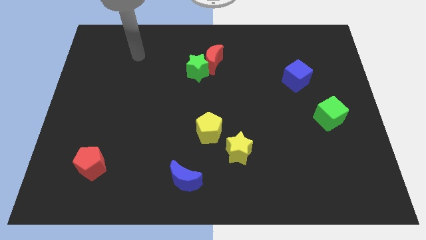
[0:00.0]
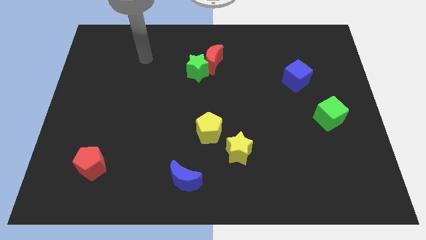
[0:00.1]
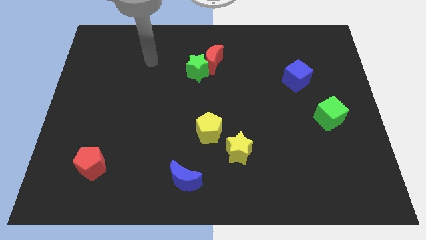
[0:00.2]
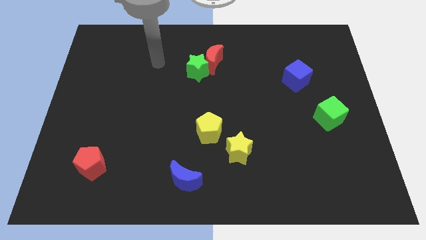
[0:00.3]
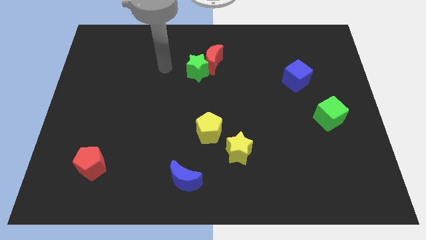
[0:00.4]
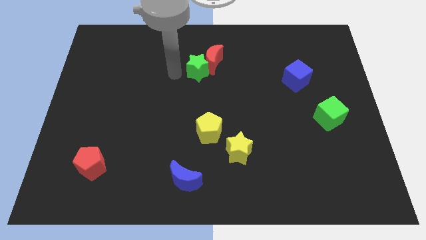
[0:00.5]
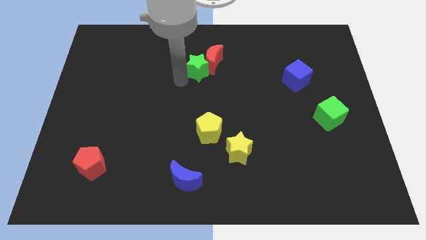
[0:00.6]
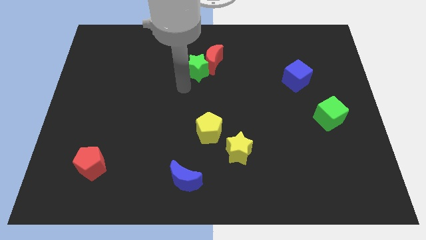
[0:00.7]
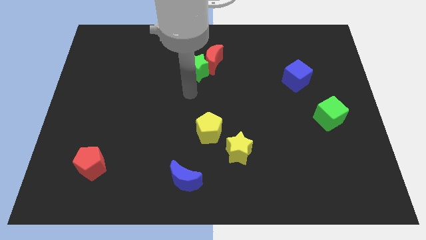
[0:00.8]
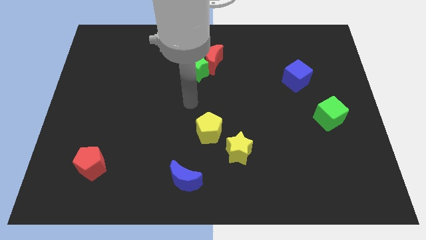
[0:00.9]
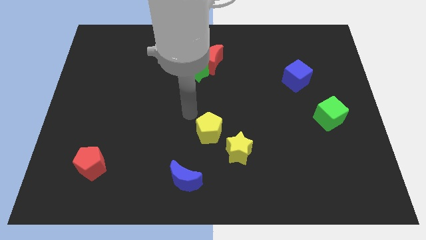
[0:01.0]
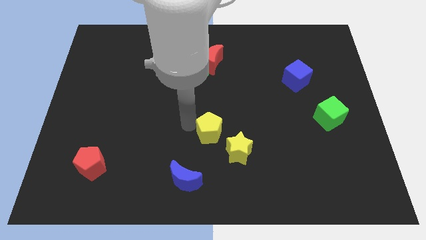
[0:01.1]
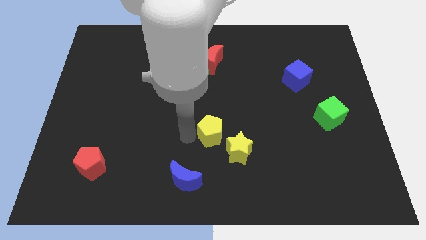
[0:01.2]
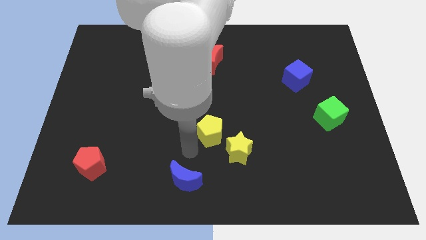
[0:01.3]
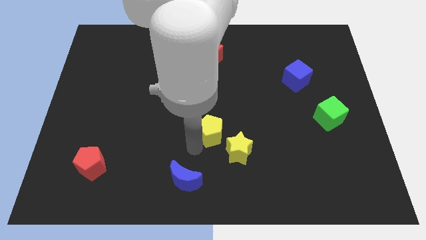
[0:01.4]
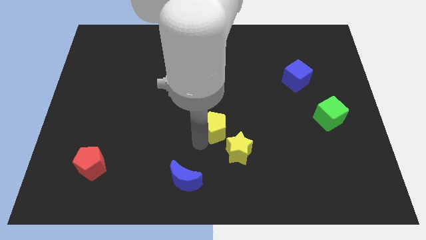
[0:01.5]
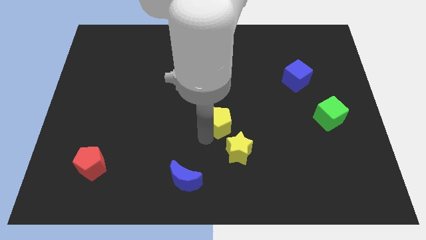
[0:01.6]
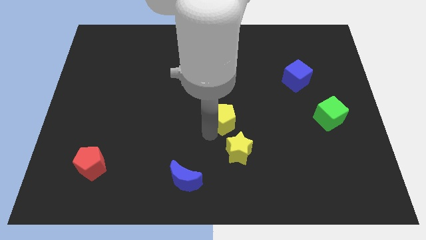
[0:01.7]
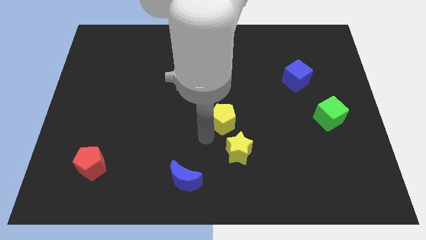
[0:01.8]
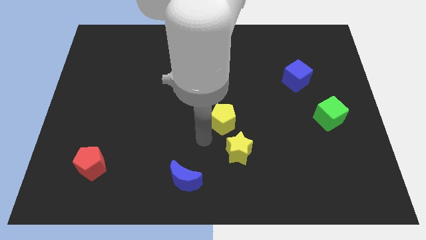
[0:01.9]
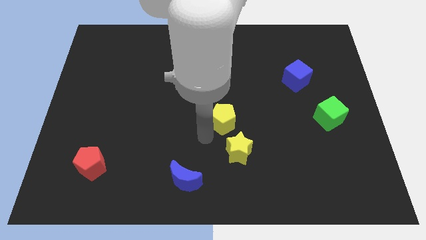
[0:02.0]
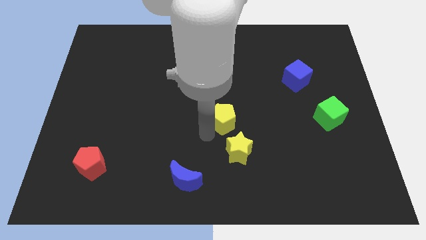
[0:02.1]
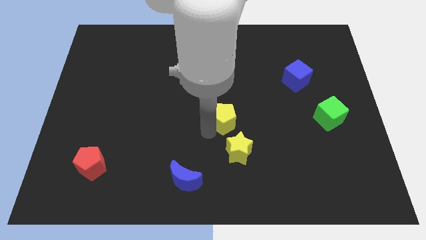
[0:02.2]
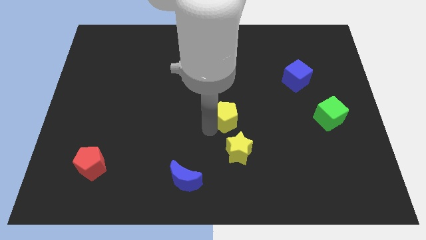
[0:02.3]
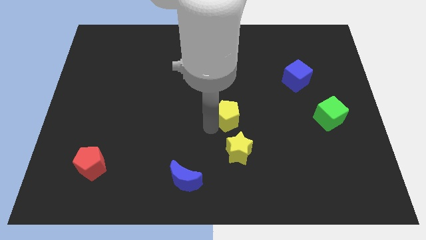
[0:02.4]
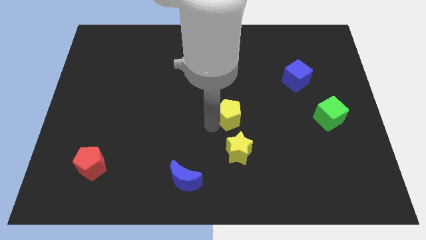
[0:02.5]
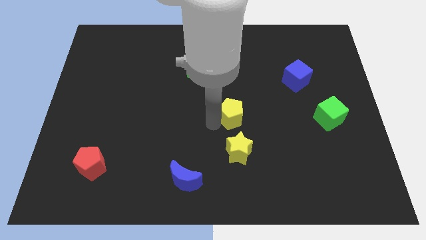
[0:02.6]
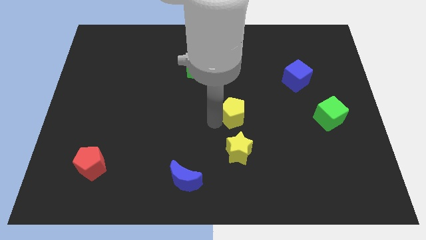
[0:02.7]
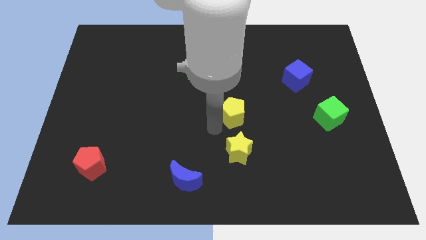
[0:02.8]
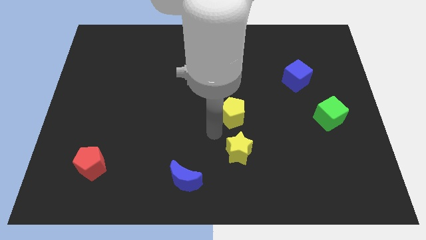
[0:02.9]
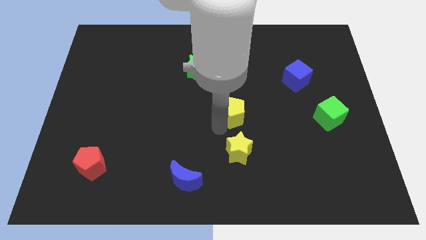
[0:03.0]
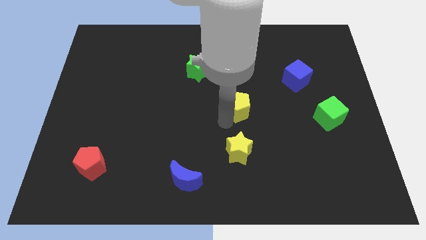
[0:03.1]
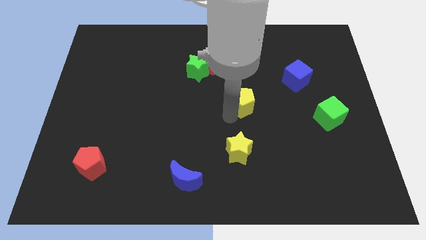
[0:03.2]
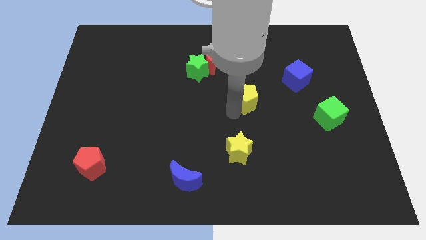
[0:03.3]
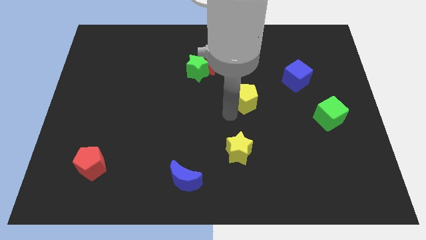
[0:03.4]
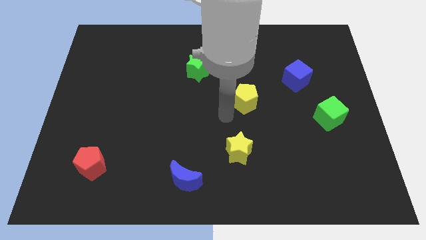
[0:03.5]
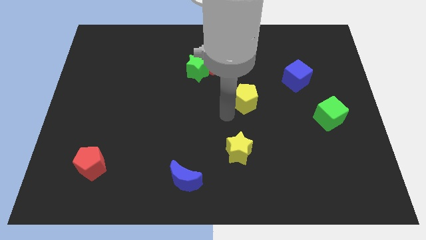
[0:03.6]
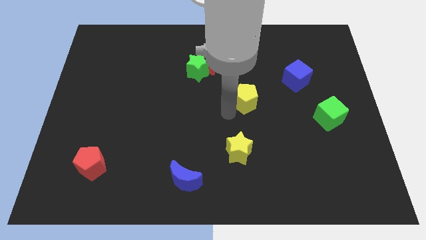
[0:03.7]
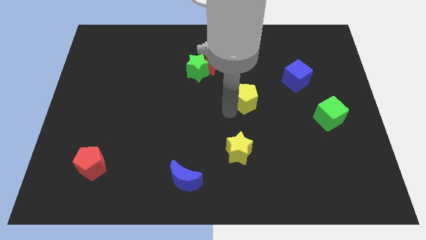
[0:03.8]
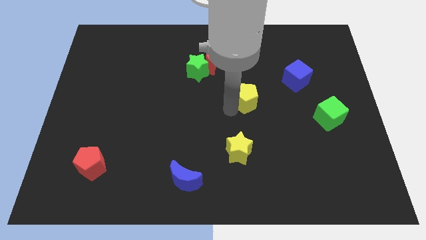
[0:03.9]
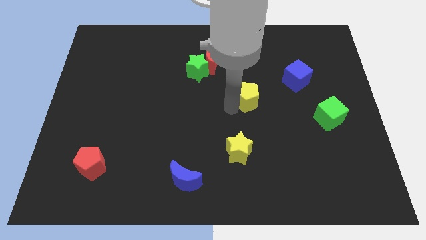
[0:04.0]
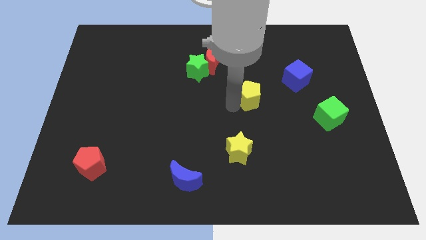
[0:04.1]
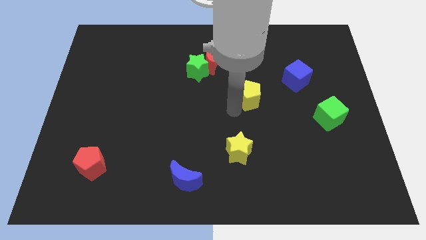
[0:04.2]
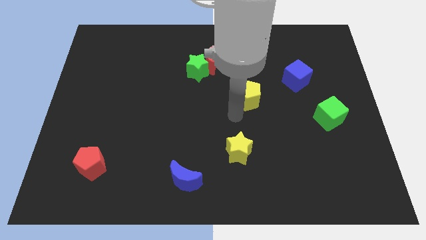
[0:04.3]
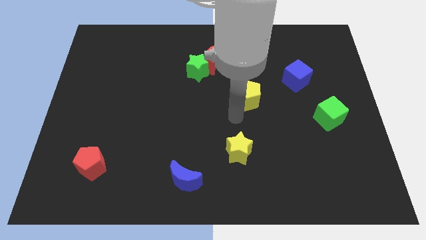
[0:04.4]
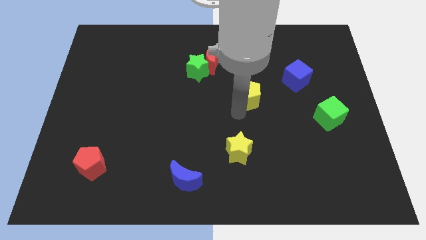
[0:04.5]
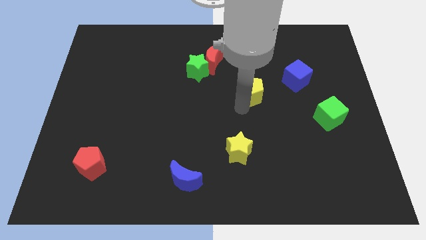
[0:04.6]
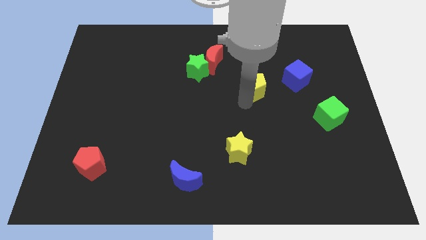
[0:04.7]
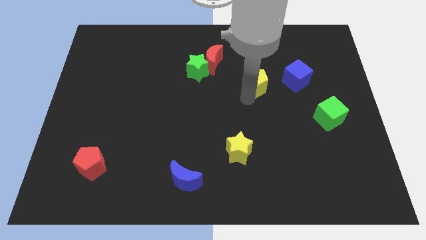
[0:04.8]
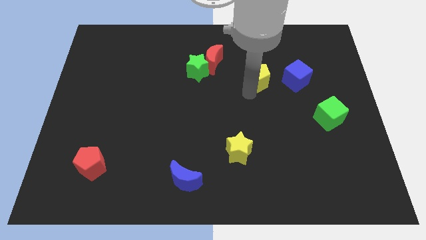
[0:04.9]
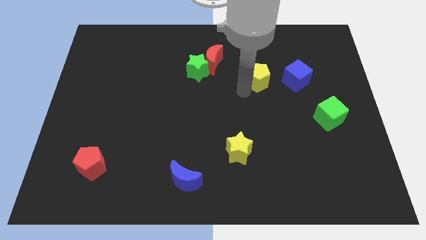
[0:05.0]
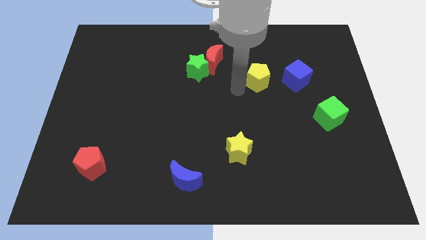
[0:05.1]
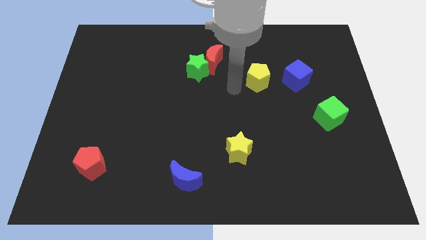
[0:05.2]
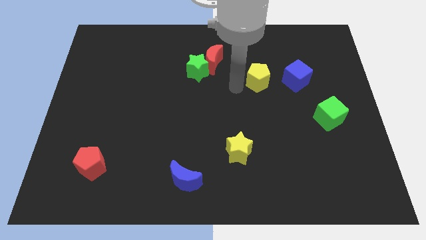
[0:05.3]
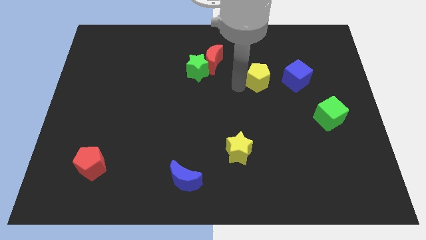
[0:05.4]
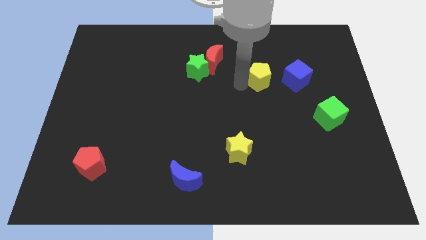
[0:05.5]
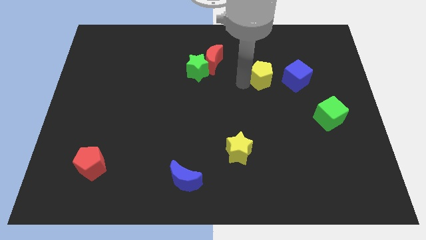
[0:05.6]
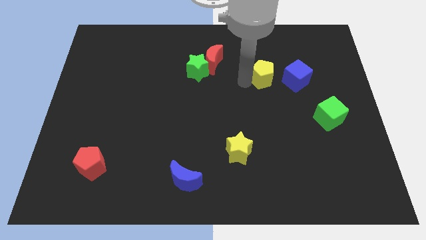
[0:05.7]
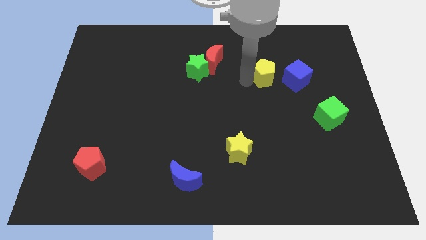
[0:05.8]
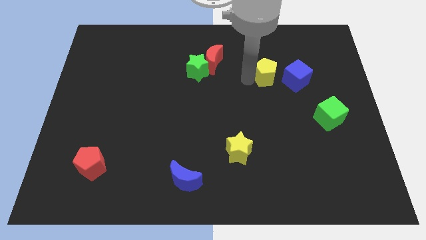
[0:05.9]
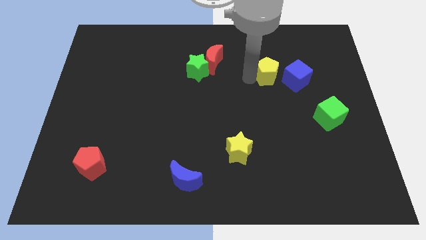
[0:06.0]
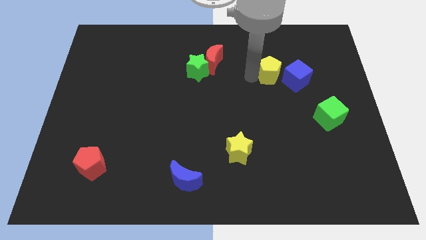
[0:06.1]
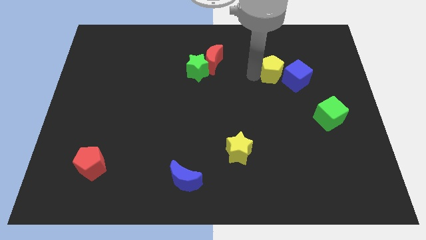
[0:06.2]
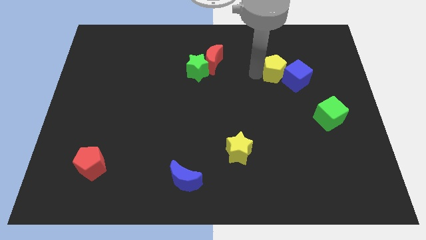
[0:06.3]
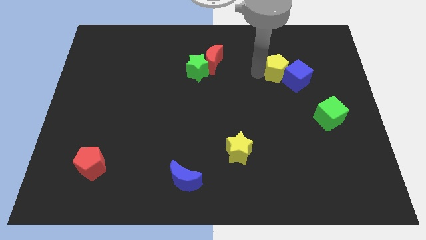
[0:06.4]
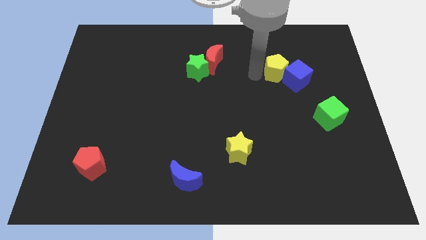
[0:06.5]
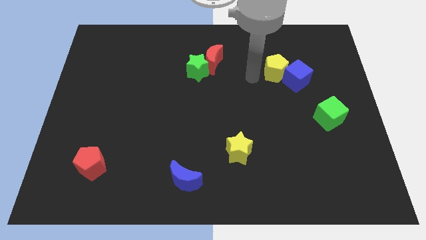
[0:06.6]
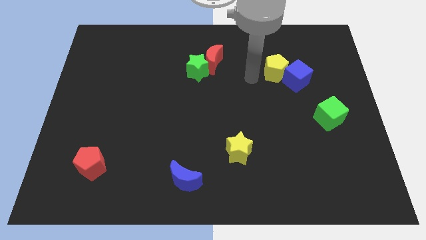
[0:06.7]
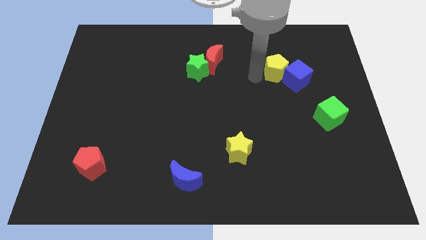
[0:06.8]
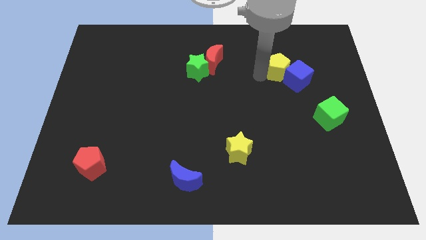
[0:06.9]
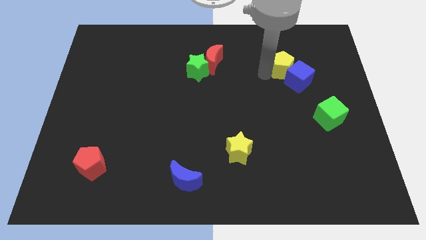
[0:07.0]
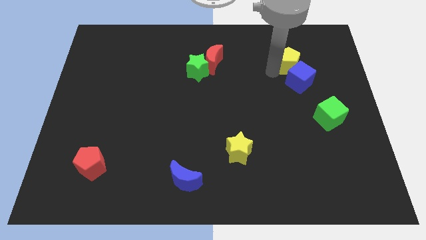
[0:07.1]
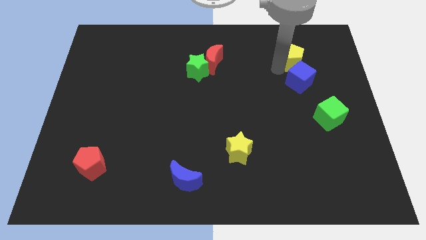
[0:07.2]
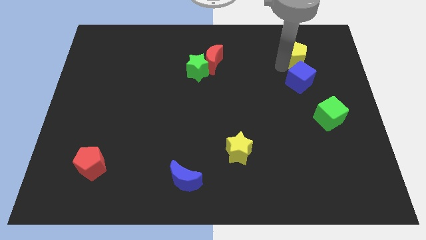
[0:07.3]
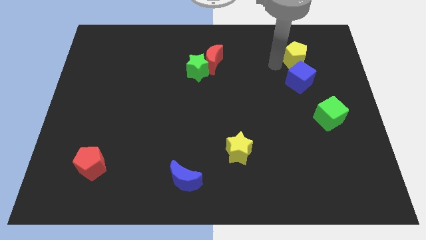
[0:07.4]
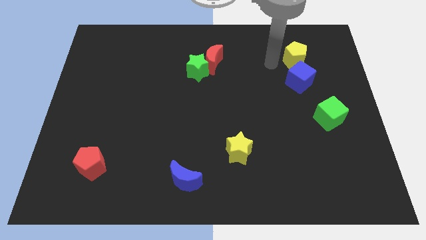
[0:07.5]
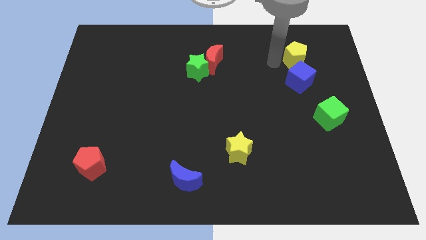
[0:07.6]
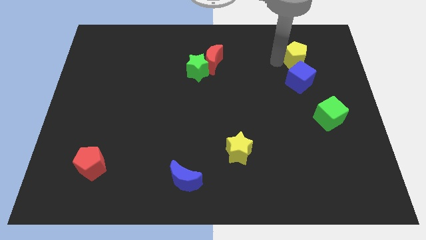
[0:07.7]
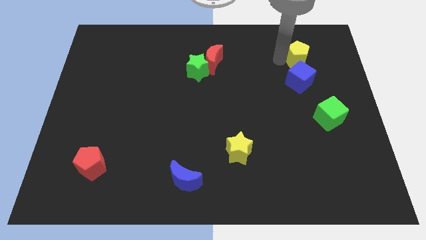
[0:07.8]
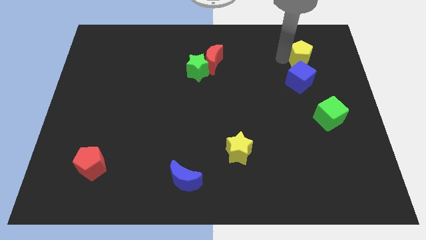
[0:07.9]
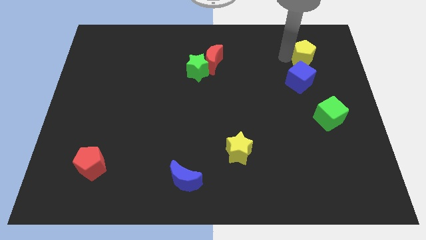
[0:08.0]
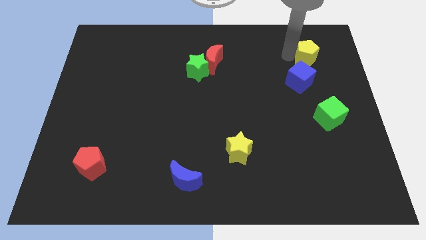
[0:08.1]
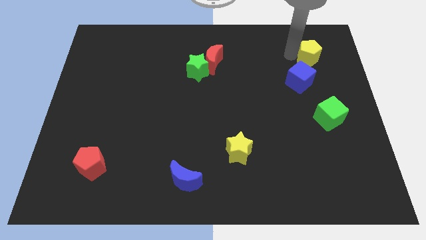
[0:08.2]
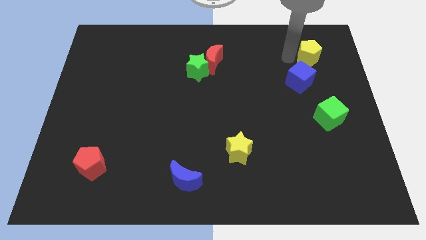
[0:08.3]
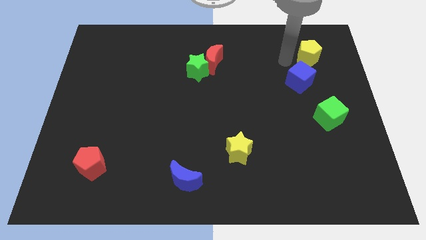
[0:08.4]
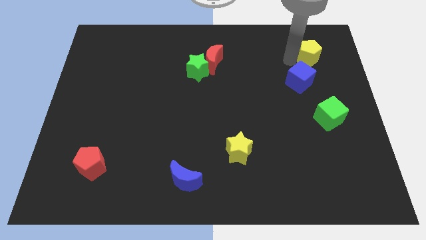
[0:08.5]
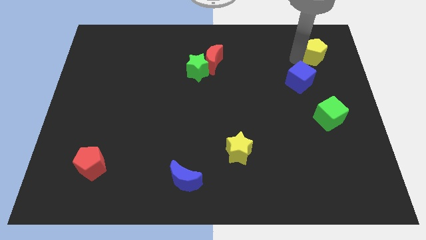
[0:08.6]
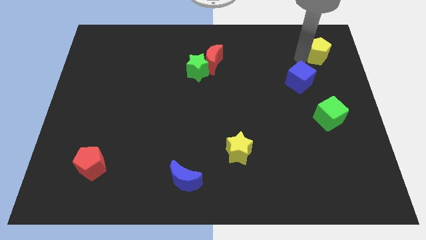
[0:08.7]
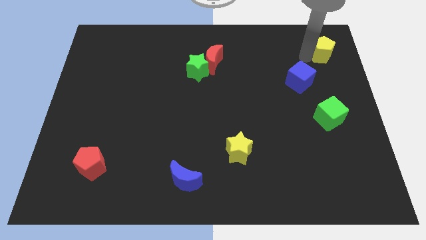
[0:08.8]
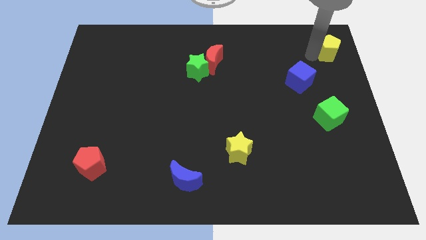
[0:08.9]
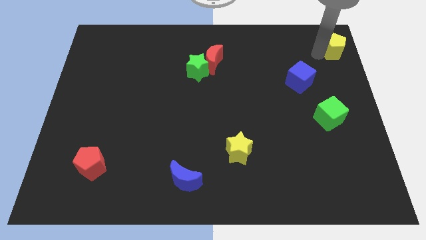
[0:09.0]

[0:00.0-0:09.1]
push the yellow pentagon to the top right corner
